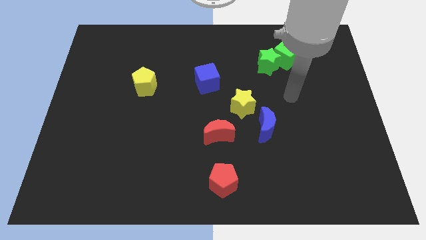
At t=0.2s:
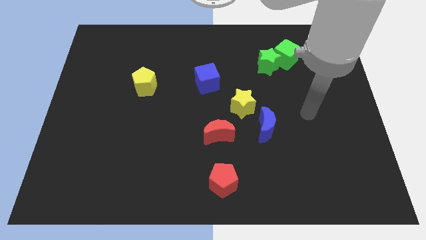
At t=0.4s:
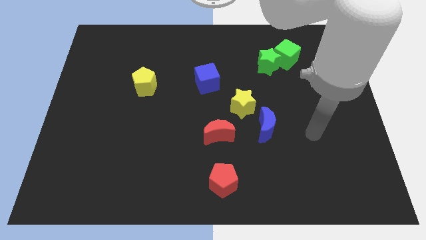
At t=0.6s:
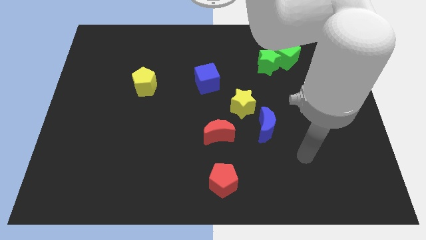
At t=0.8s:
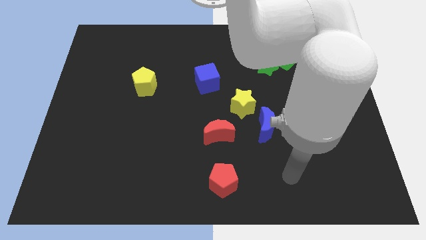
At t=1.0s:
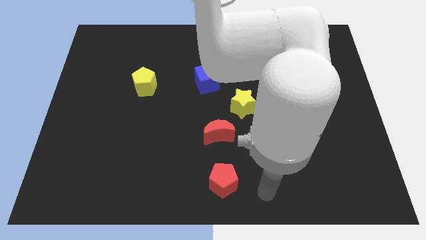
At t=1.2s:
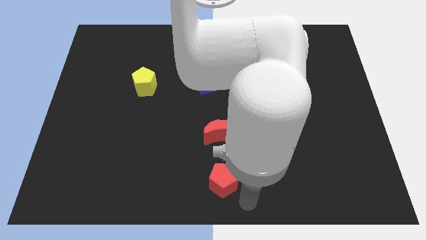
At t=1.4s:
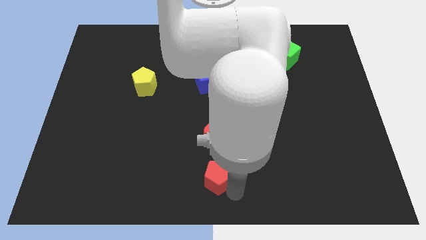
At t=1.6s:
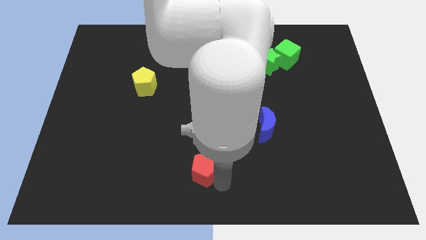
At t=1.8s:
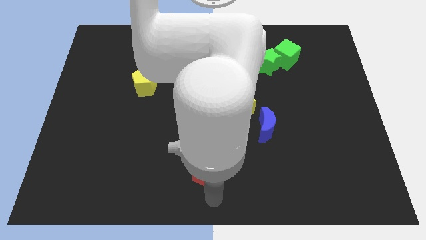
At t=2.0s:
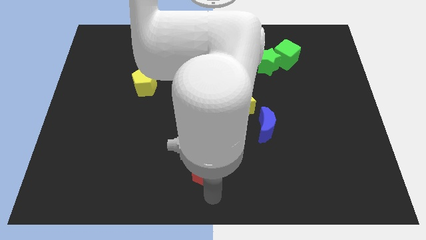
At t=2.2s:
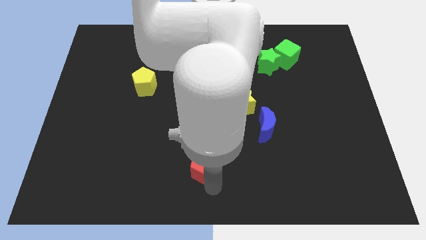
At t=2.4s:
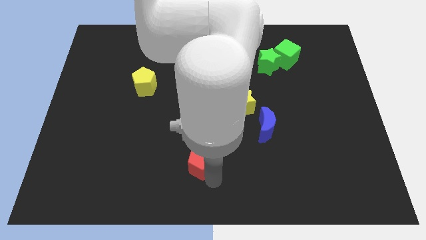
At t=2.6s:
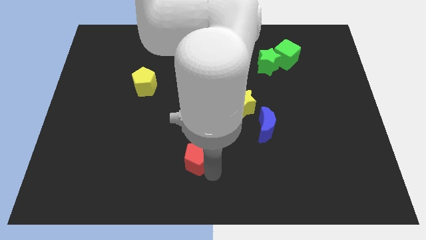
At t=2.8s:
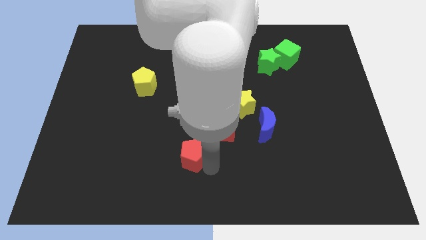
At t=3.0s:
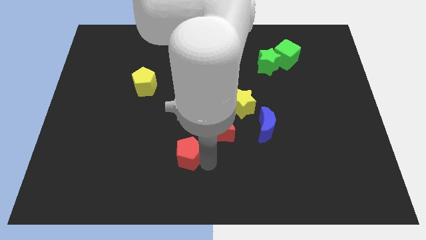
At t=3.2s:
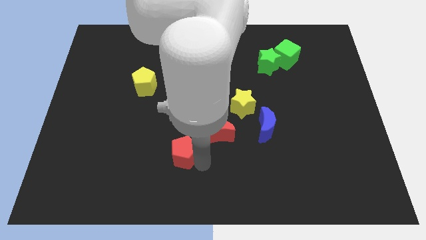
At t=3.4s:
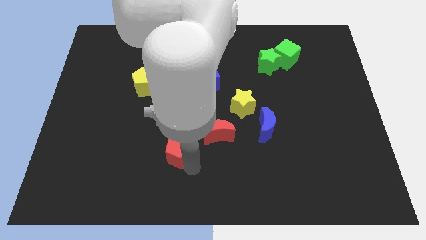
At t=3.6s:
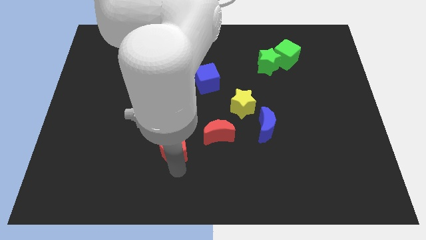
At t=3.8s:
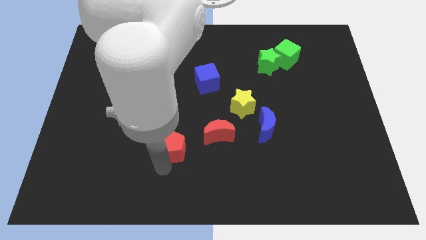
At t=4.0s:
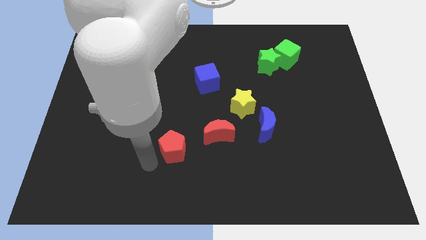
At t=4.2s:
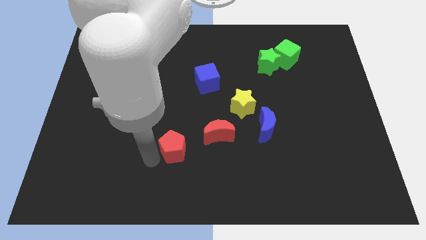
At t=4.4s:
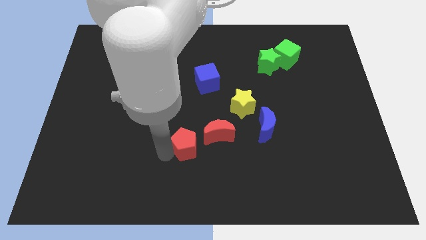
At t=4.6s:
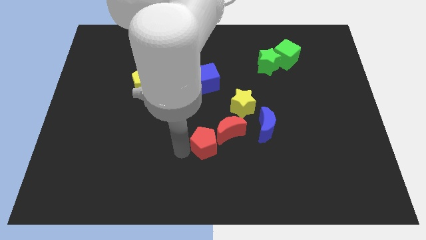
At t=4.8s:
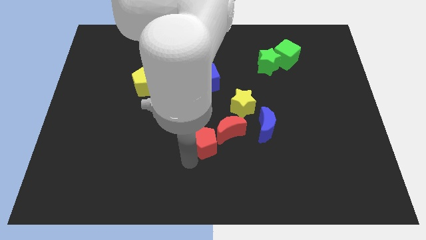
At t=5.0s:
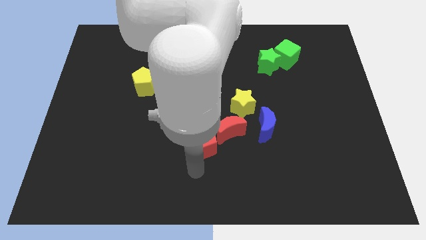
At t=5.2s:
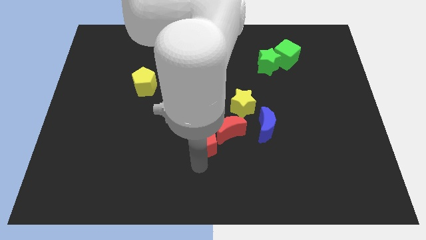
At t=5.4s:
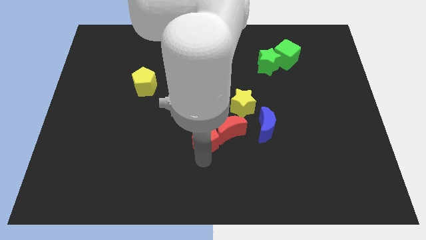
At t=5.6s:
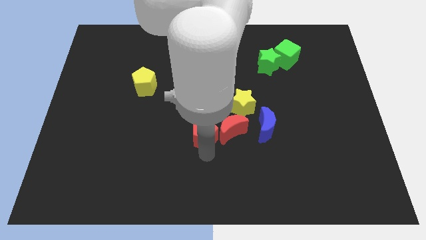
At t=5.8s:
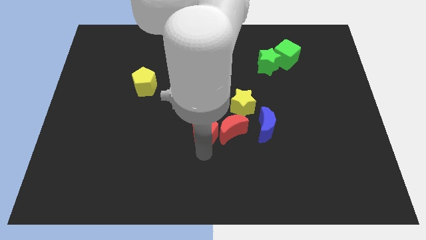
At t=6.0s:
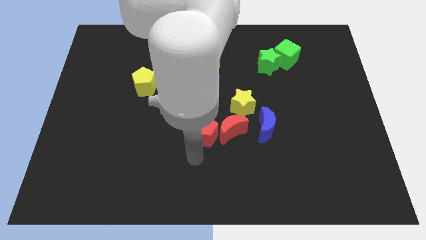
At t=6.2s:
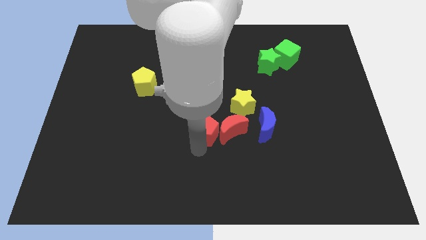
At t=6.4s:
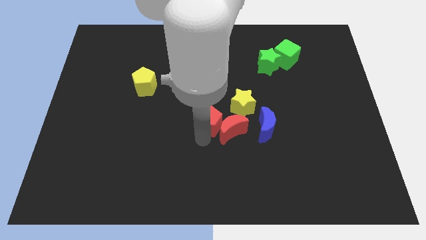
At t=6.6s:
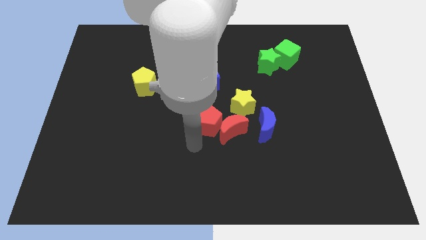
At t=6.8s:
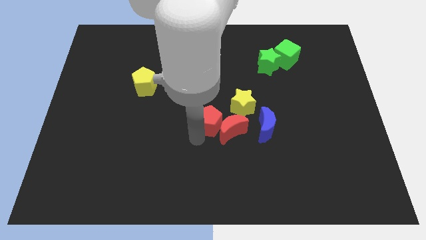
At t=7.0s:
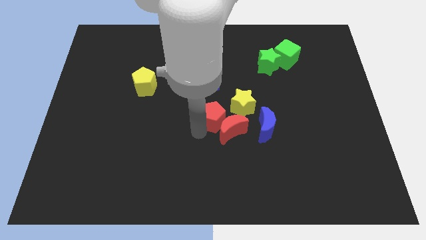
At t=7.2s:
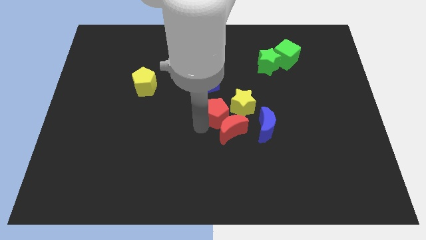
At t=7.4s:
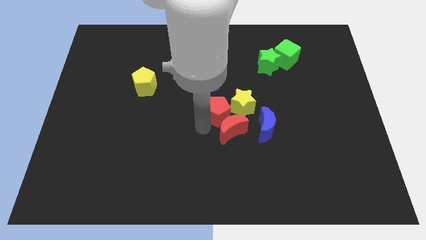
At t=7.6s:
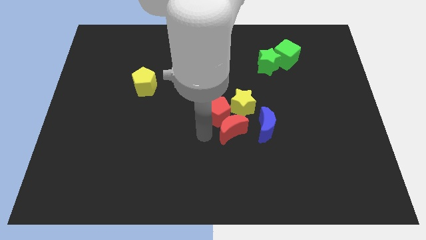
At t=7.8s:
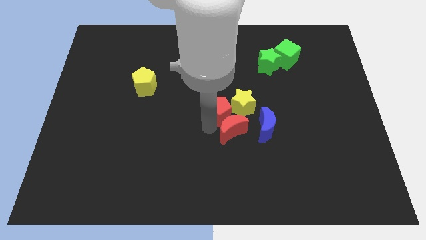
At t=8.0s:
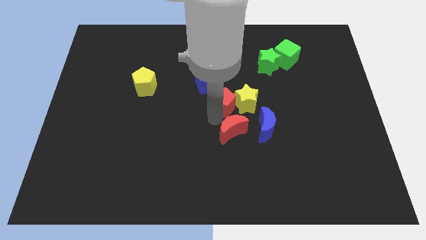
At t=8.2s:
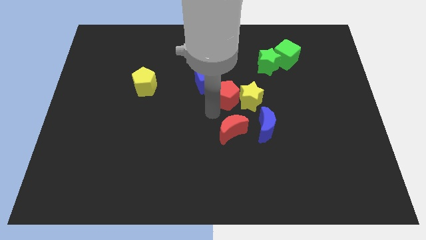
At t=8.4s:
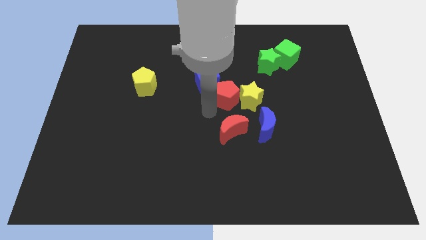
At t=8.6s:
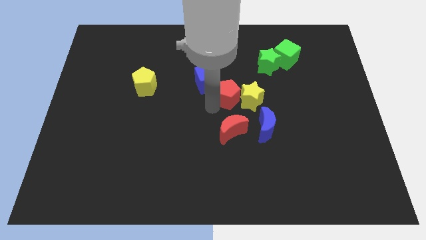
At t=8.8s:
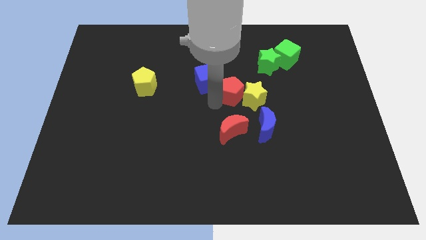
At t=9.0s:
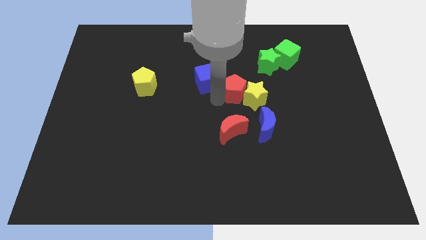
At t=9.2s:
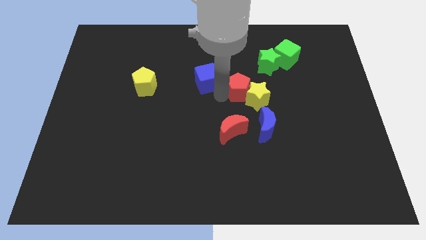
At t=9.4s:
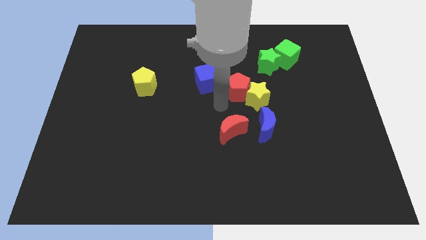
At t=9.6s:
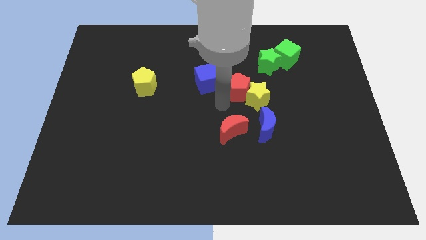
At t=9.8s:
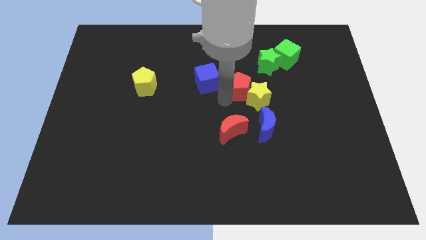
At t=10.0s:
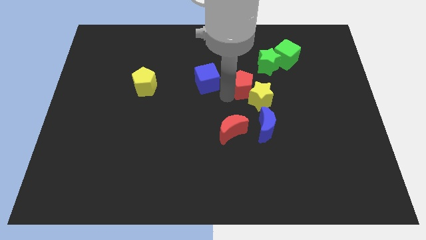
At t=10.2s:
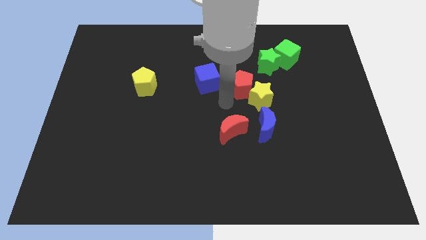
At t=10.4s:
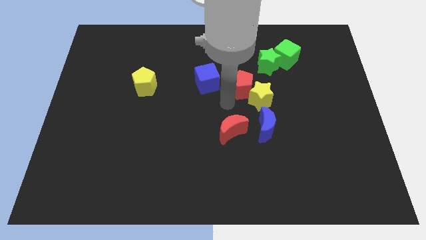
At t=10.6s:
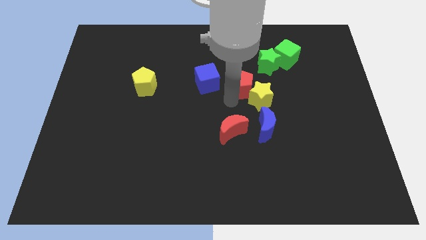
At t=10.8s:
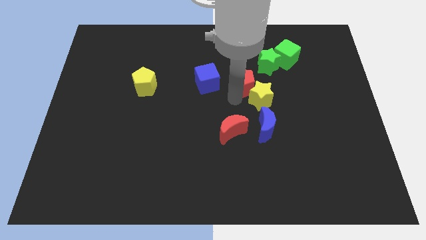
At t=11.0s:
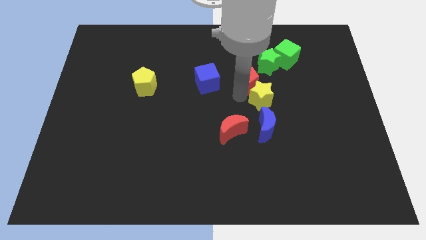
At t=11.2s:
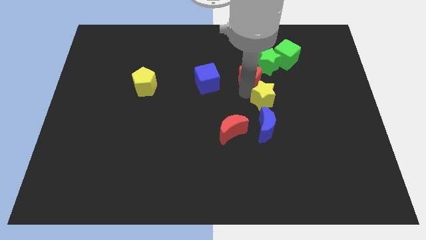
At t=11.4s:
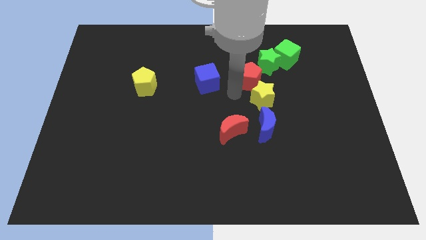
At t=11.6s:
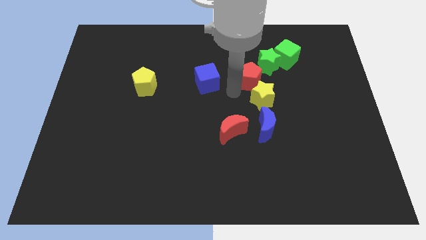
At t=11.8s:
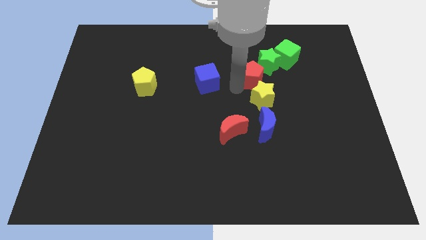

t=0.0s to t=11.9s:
put the red pentagon to the green star

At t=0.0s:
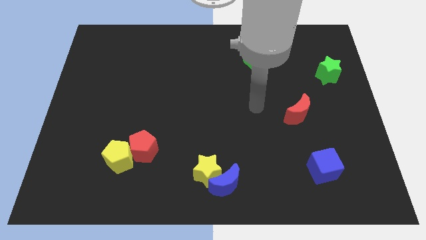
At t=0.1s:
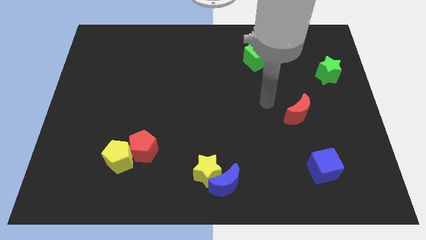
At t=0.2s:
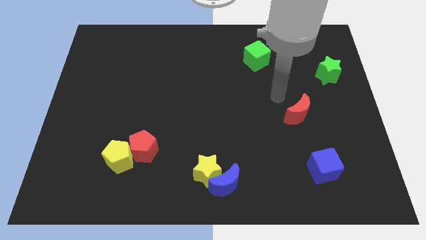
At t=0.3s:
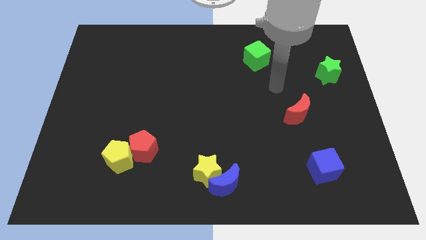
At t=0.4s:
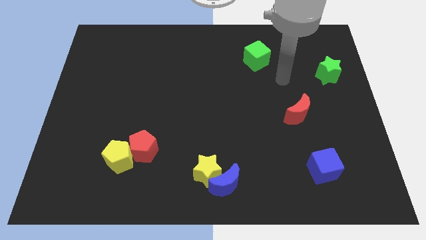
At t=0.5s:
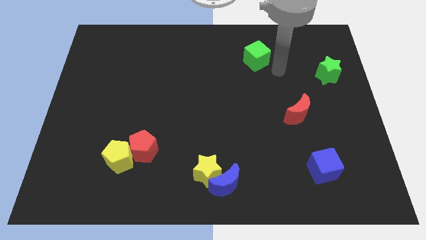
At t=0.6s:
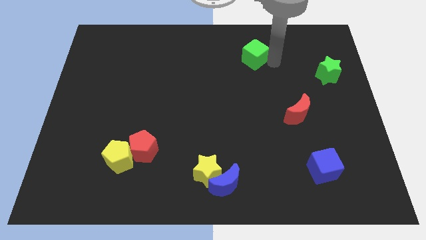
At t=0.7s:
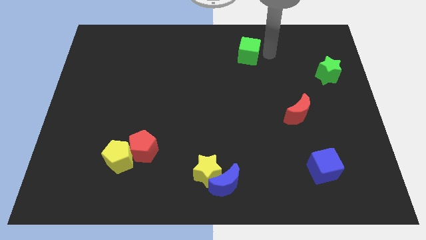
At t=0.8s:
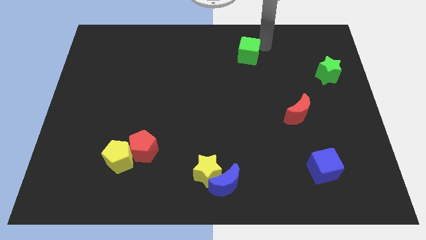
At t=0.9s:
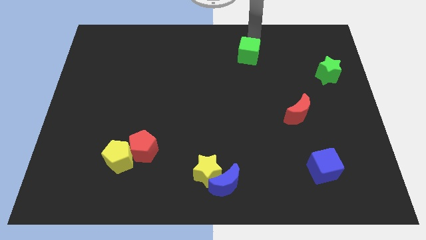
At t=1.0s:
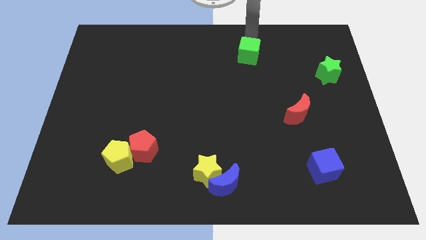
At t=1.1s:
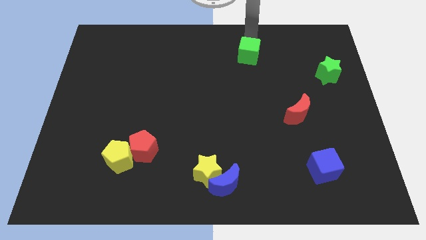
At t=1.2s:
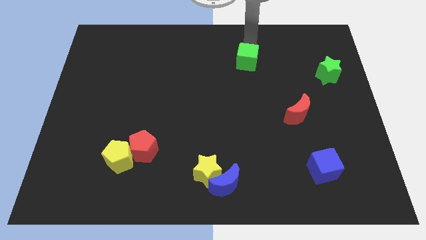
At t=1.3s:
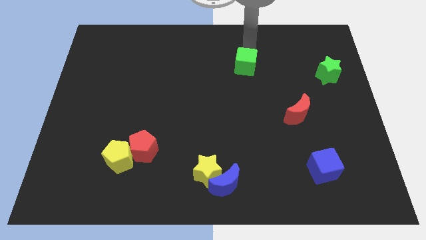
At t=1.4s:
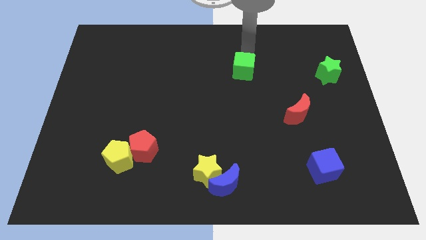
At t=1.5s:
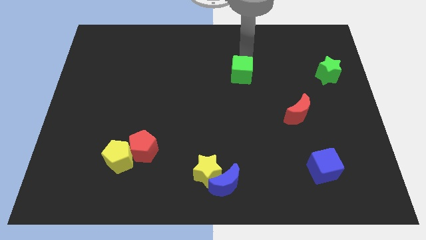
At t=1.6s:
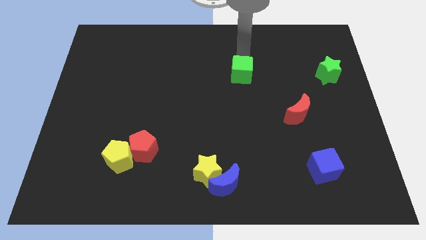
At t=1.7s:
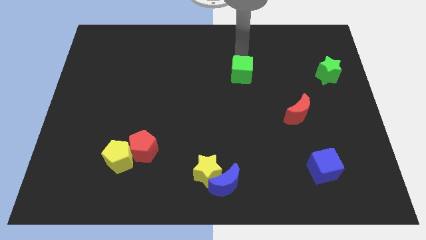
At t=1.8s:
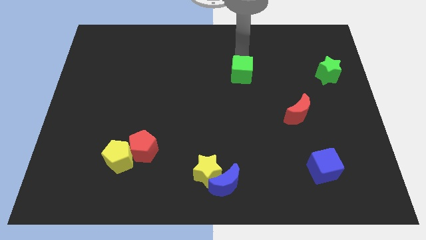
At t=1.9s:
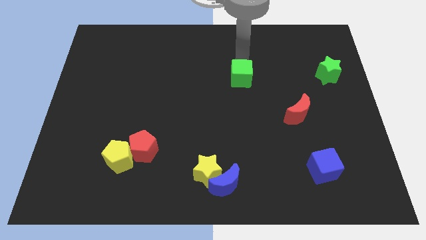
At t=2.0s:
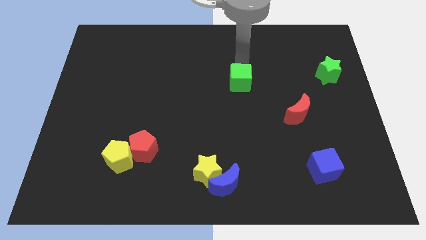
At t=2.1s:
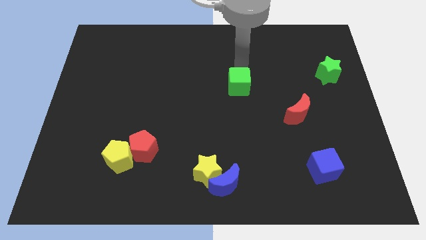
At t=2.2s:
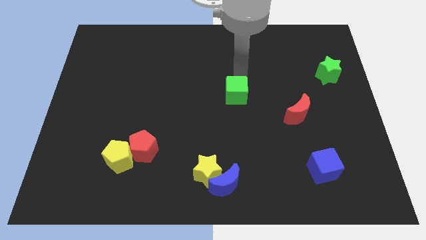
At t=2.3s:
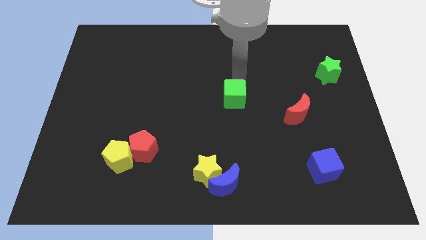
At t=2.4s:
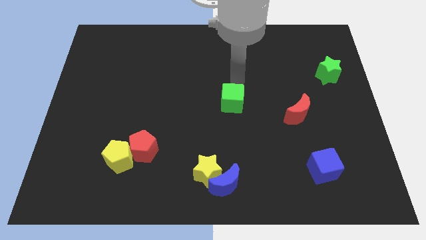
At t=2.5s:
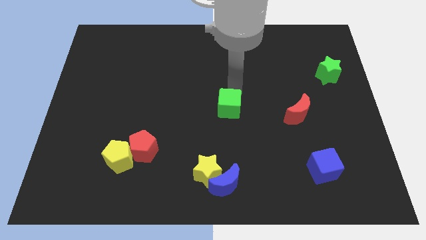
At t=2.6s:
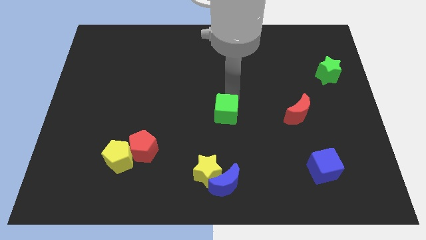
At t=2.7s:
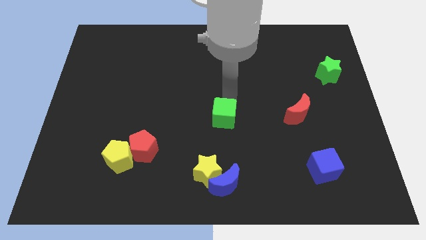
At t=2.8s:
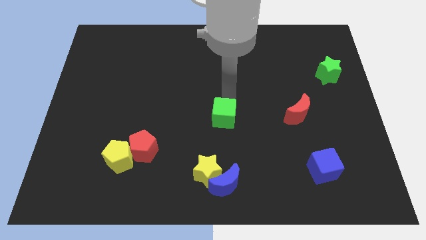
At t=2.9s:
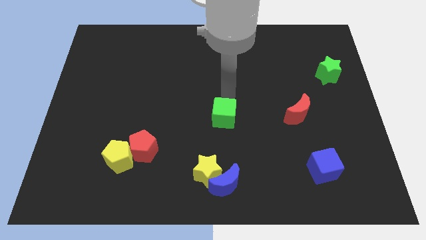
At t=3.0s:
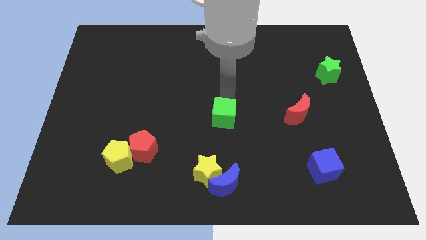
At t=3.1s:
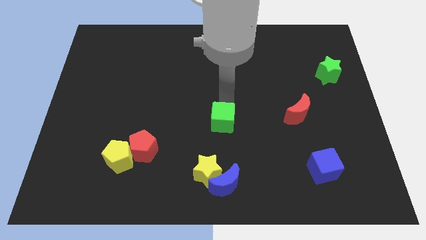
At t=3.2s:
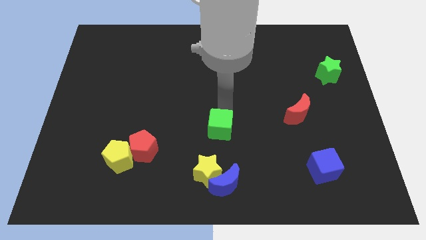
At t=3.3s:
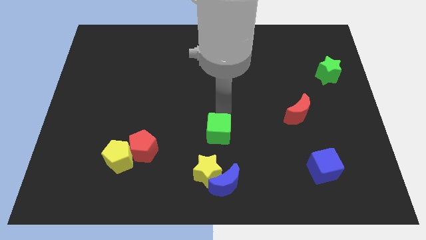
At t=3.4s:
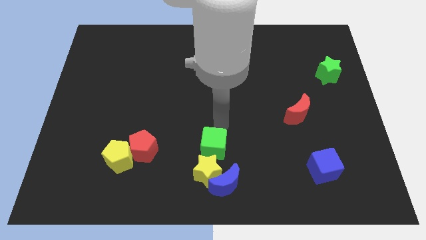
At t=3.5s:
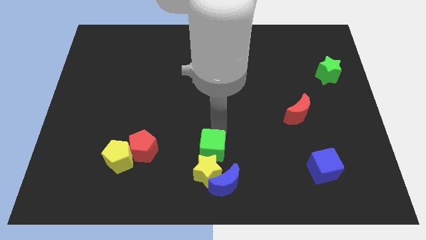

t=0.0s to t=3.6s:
put the green cube towards the yellow star
